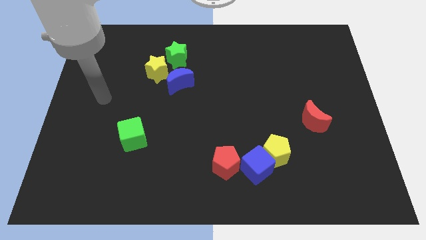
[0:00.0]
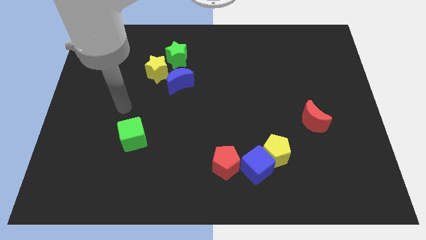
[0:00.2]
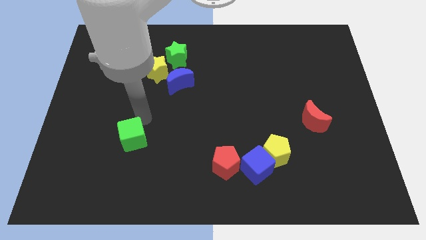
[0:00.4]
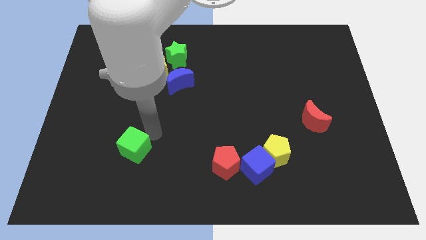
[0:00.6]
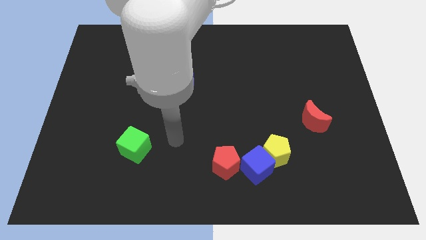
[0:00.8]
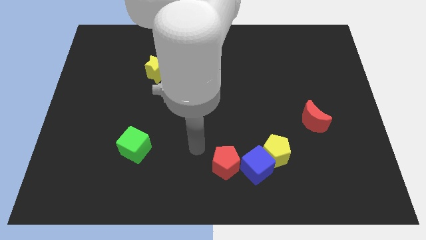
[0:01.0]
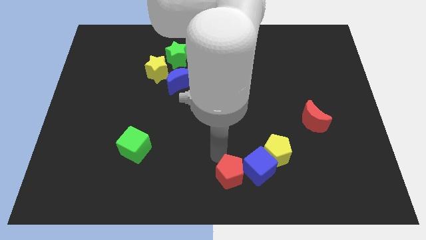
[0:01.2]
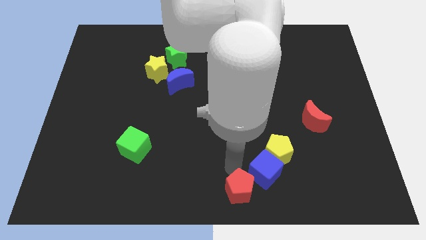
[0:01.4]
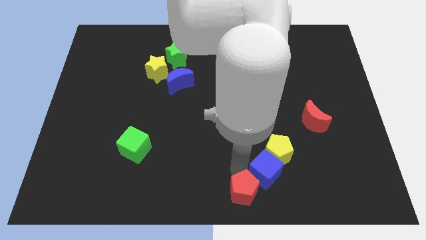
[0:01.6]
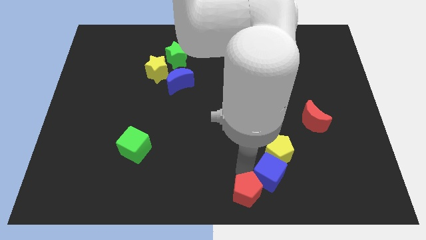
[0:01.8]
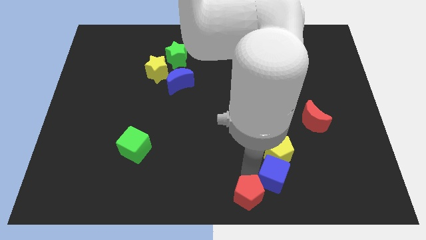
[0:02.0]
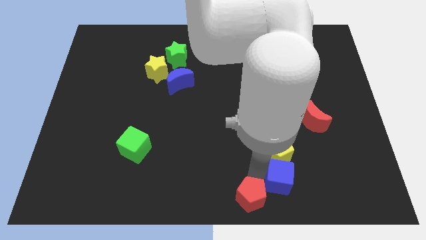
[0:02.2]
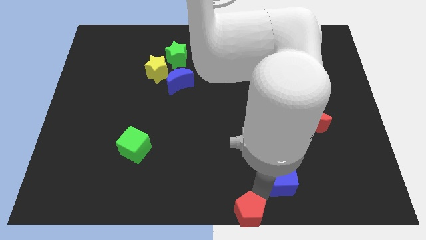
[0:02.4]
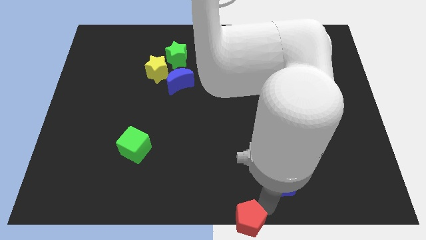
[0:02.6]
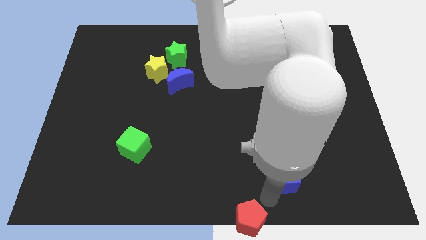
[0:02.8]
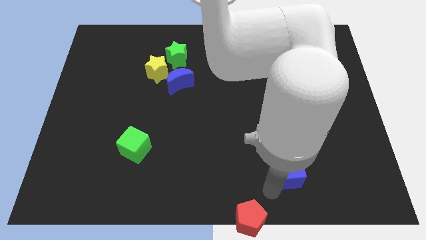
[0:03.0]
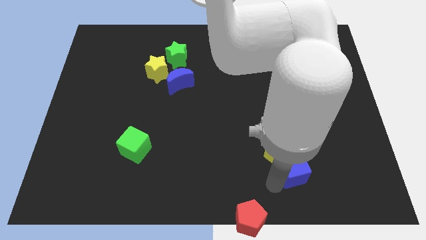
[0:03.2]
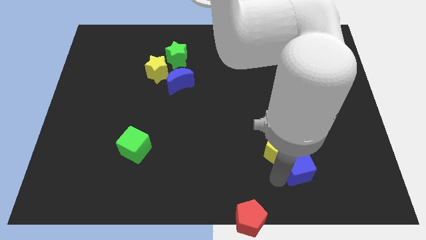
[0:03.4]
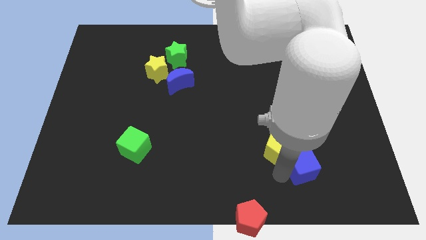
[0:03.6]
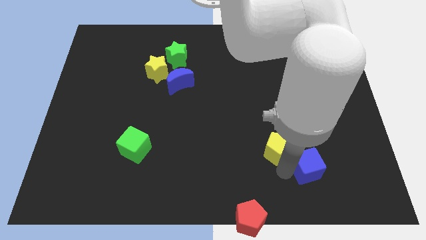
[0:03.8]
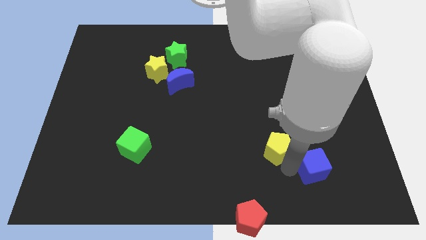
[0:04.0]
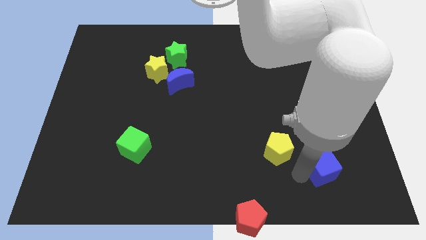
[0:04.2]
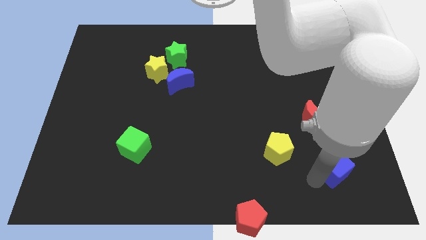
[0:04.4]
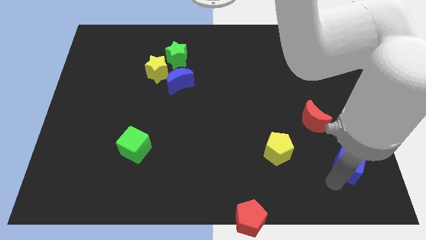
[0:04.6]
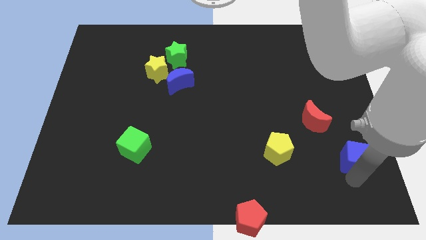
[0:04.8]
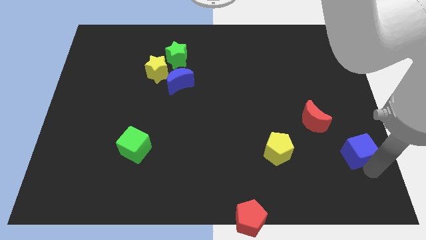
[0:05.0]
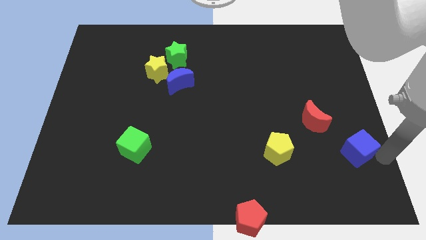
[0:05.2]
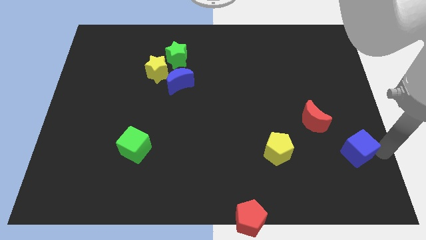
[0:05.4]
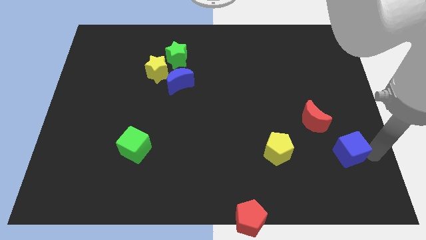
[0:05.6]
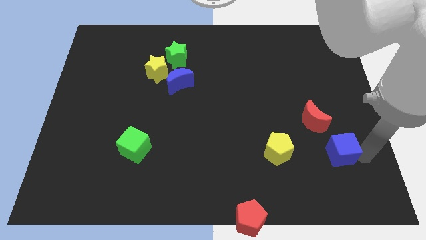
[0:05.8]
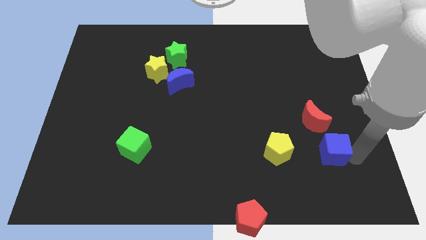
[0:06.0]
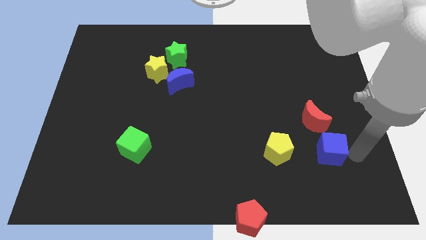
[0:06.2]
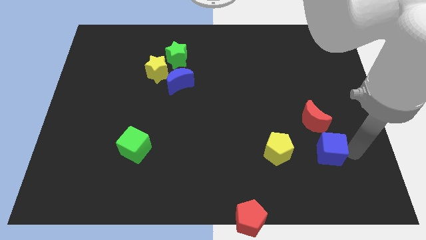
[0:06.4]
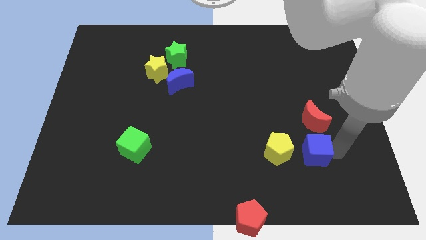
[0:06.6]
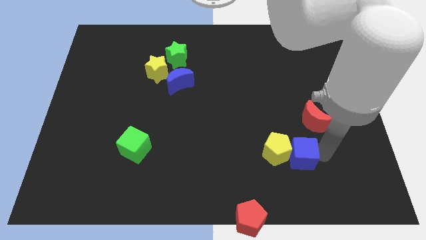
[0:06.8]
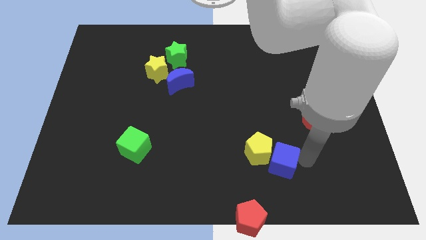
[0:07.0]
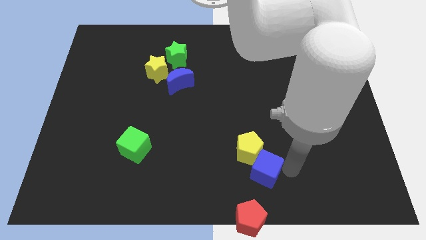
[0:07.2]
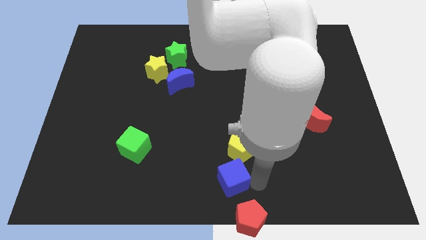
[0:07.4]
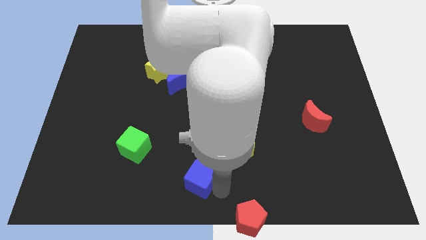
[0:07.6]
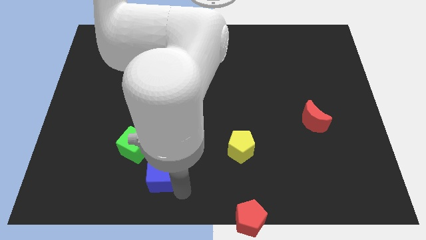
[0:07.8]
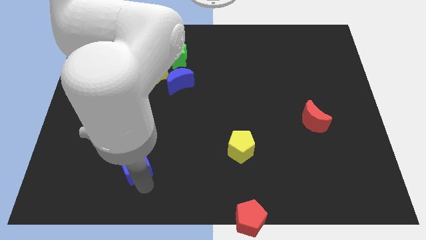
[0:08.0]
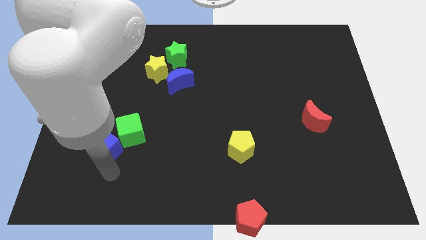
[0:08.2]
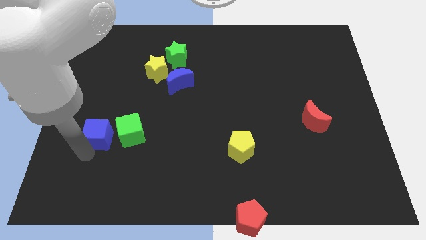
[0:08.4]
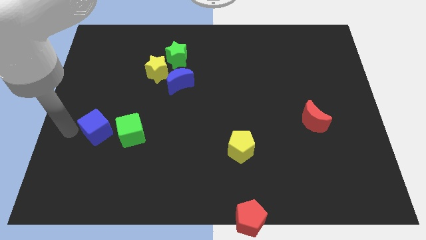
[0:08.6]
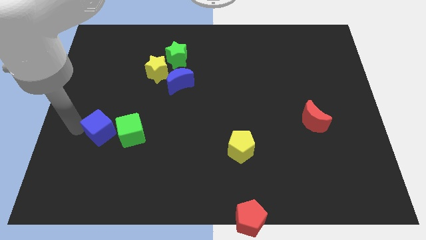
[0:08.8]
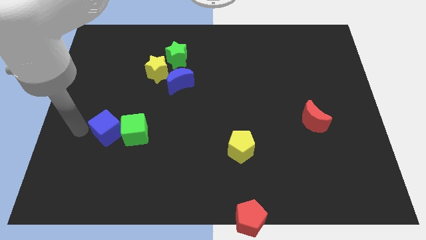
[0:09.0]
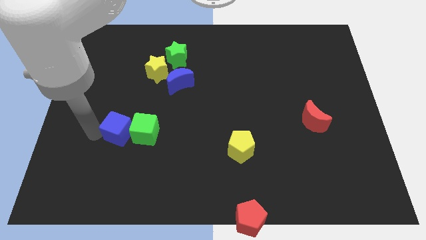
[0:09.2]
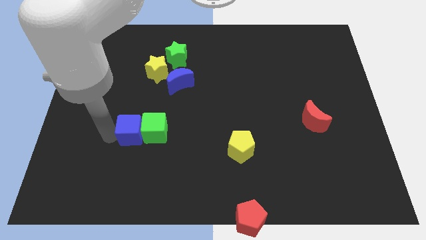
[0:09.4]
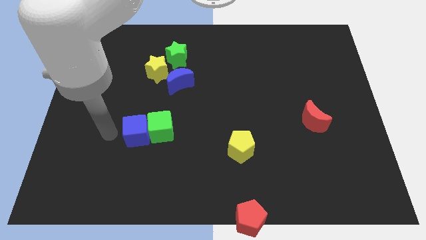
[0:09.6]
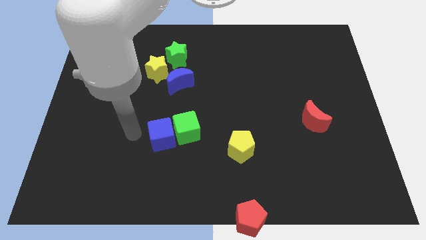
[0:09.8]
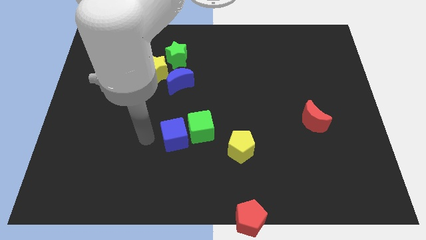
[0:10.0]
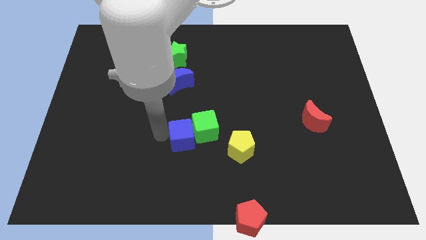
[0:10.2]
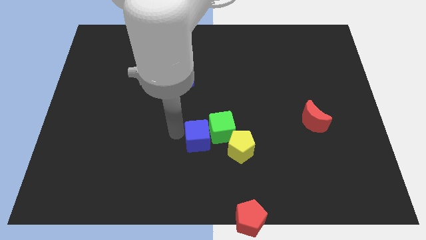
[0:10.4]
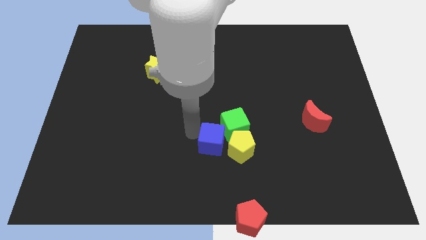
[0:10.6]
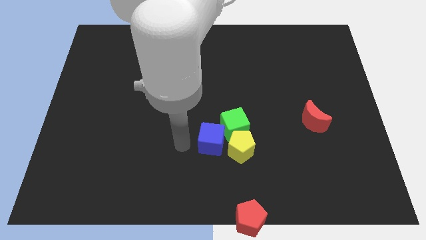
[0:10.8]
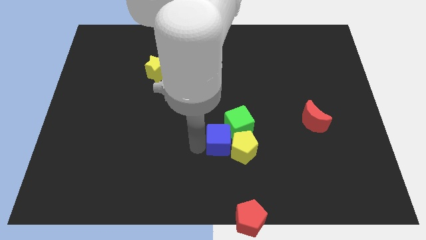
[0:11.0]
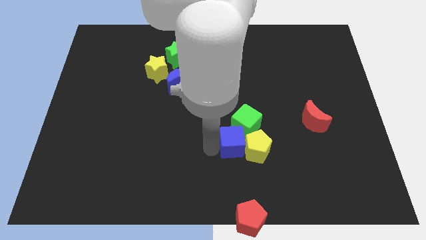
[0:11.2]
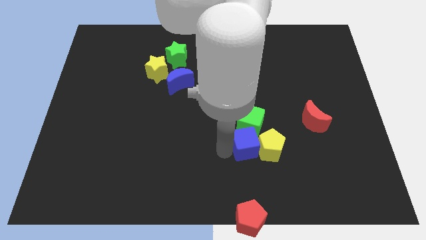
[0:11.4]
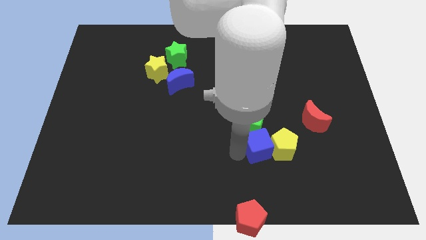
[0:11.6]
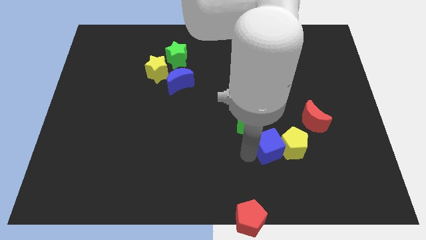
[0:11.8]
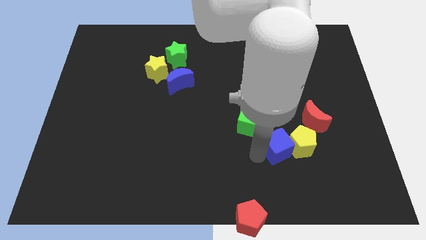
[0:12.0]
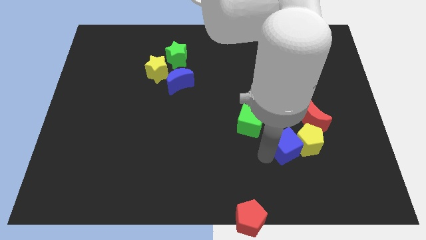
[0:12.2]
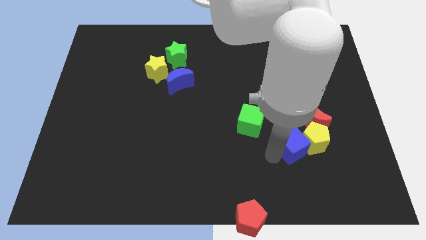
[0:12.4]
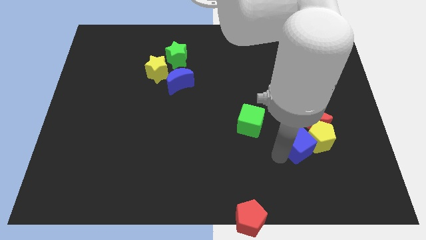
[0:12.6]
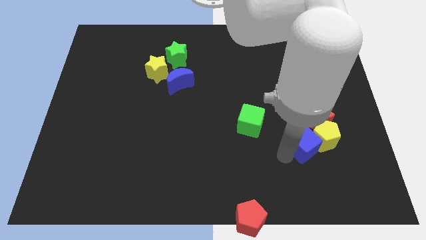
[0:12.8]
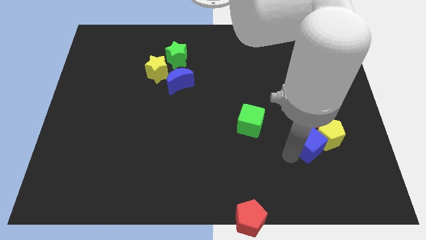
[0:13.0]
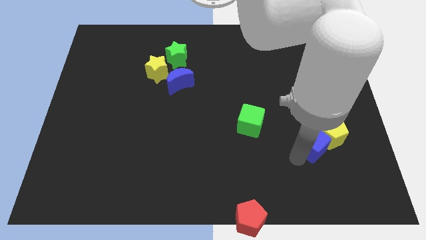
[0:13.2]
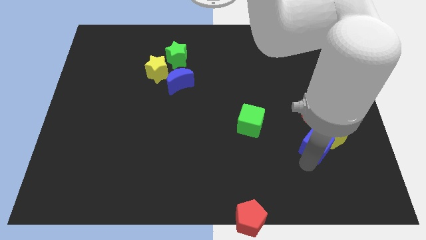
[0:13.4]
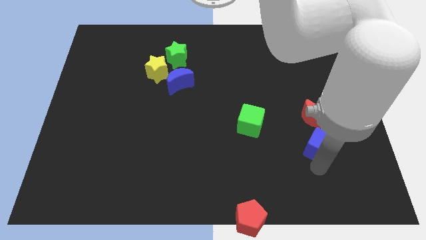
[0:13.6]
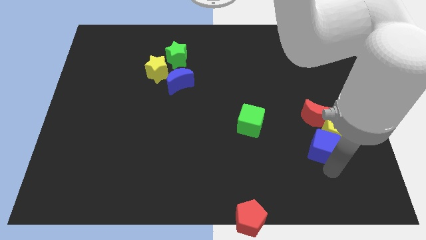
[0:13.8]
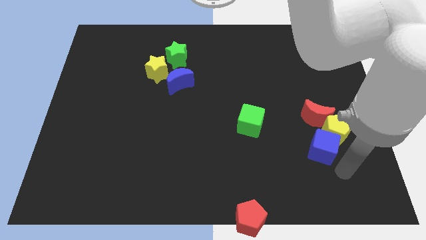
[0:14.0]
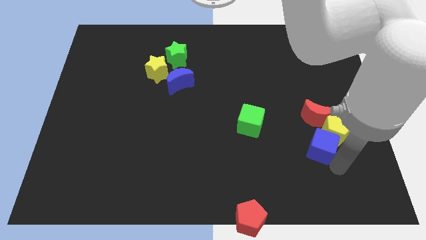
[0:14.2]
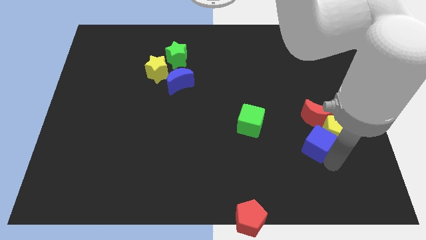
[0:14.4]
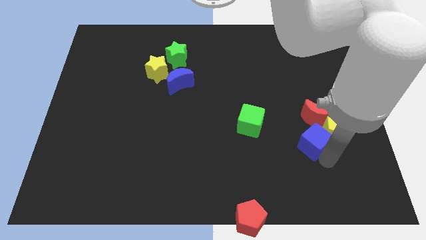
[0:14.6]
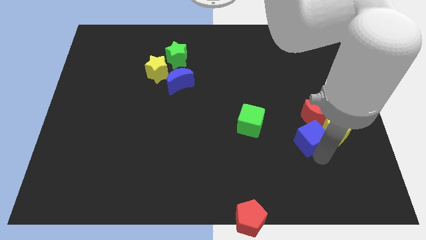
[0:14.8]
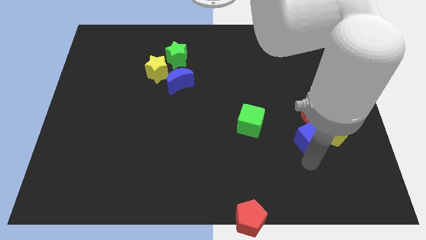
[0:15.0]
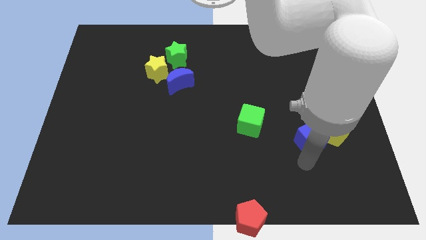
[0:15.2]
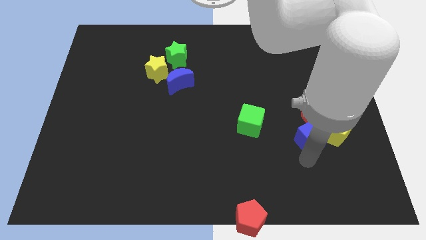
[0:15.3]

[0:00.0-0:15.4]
move the blue cube towards the red moon
